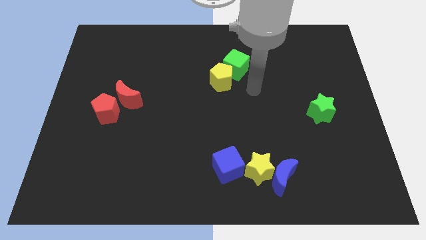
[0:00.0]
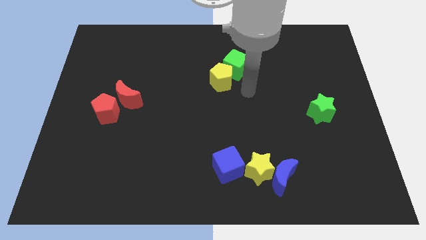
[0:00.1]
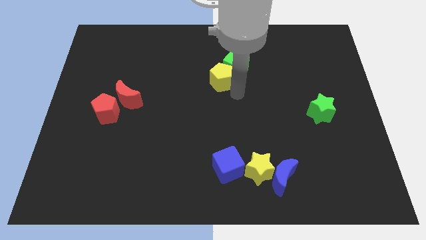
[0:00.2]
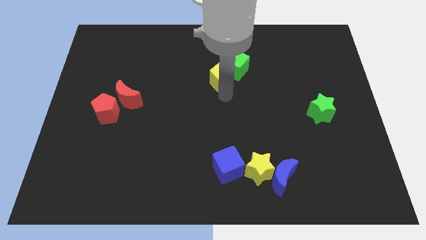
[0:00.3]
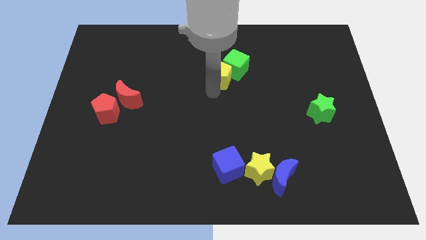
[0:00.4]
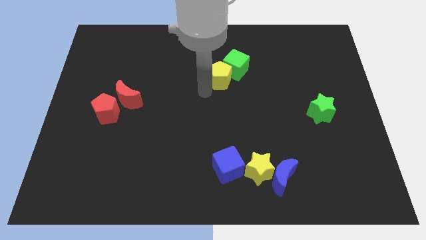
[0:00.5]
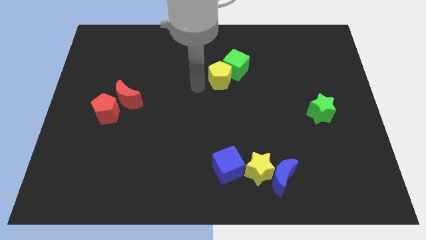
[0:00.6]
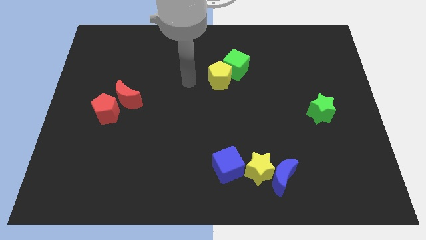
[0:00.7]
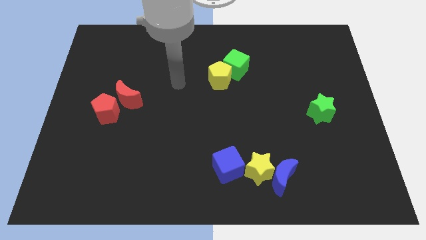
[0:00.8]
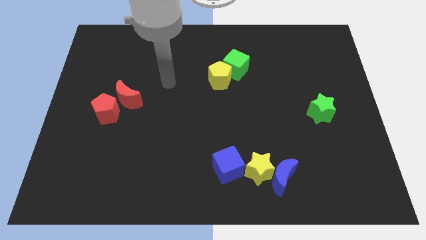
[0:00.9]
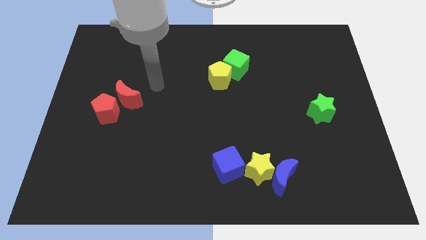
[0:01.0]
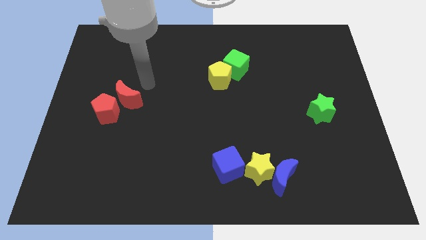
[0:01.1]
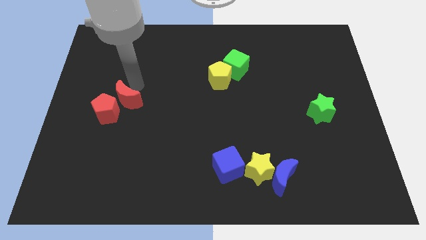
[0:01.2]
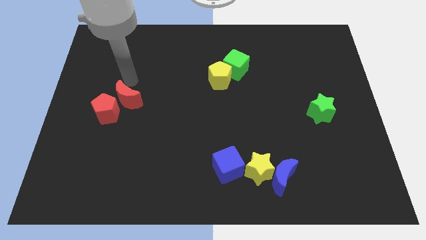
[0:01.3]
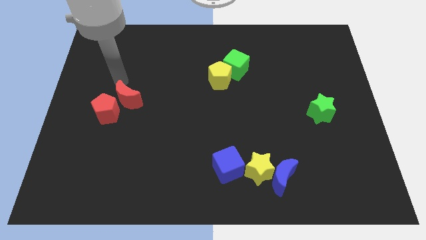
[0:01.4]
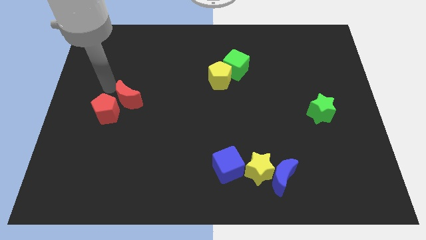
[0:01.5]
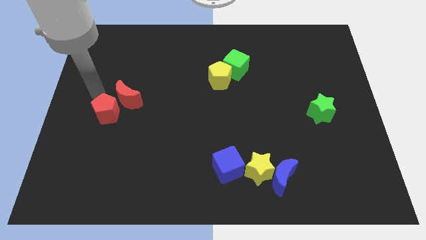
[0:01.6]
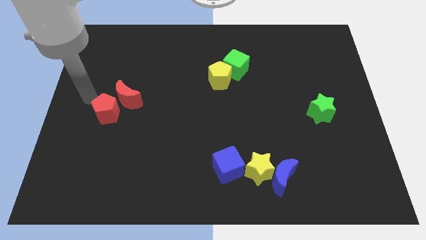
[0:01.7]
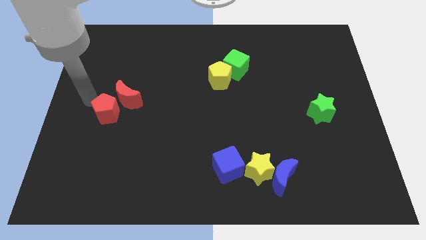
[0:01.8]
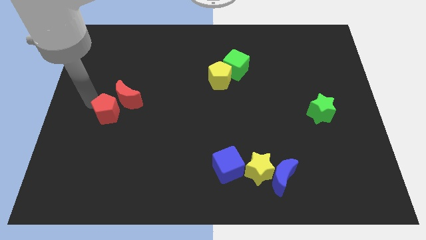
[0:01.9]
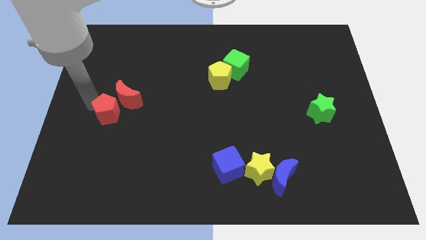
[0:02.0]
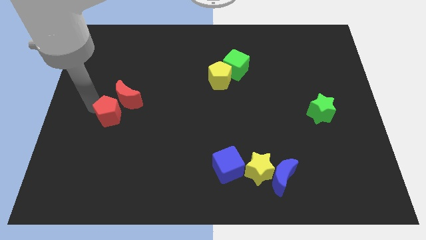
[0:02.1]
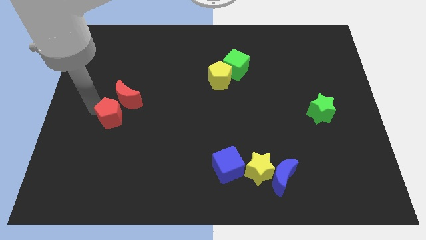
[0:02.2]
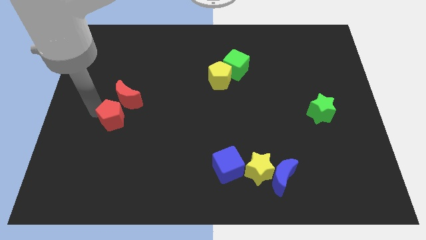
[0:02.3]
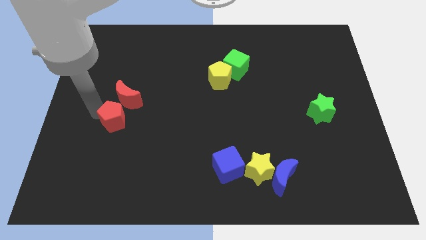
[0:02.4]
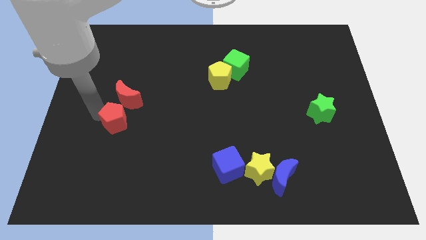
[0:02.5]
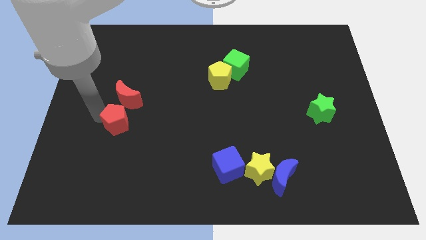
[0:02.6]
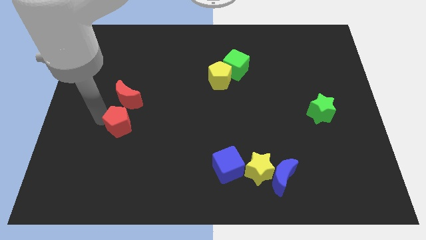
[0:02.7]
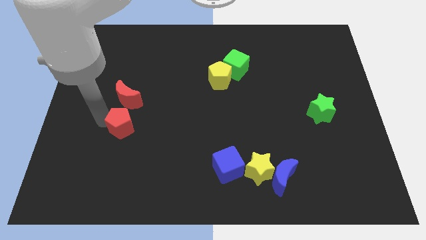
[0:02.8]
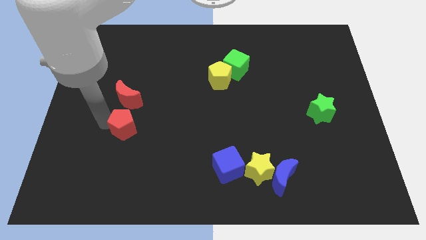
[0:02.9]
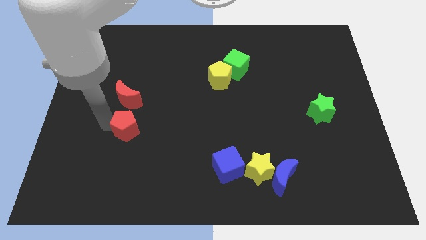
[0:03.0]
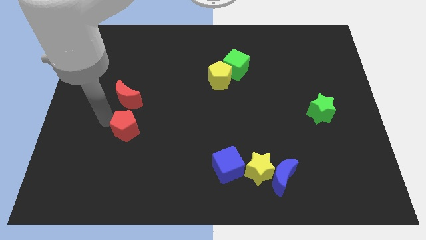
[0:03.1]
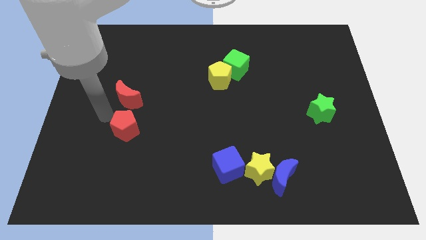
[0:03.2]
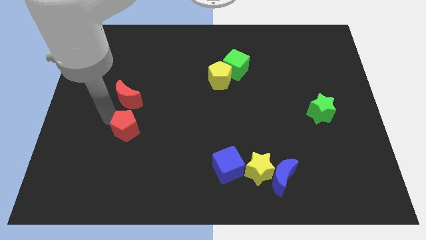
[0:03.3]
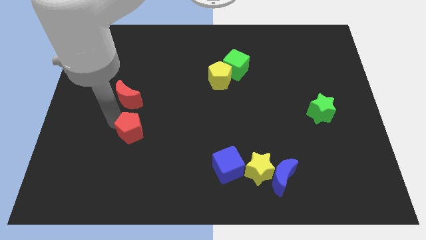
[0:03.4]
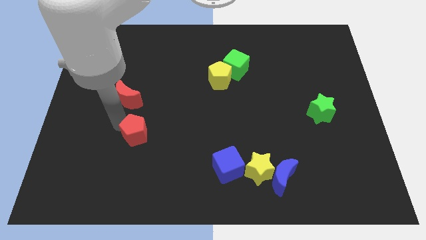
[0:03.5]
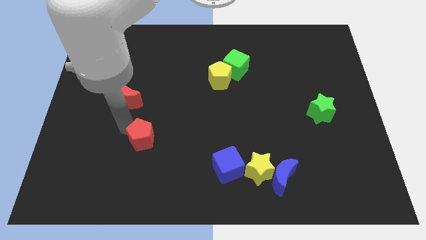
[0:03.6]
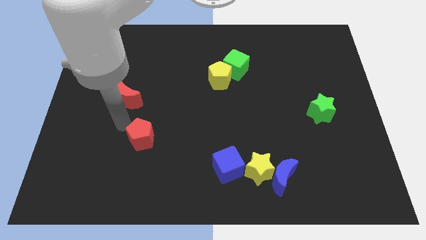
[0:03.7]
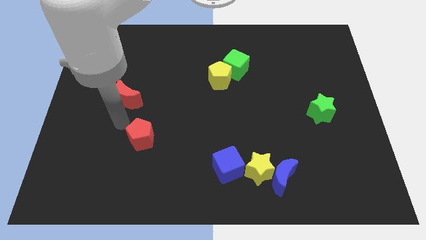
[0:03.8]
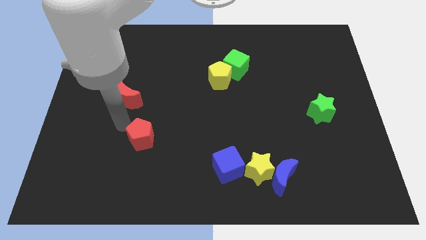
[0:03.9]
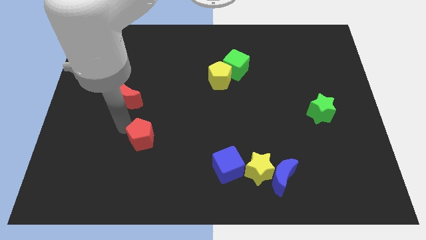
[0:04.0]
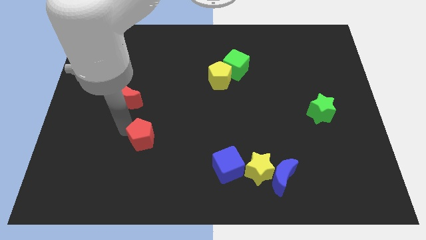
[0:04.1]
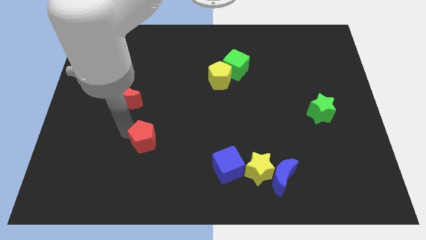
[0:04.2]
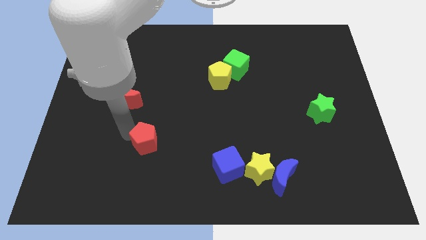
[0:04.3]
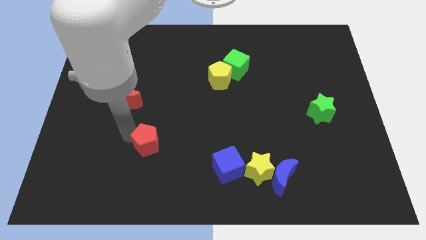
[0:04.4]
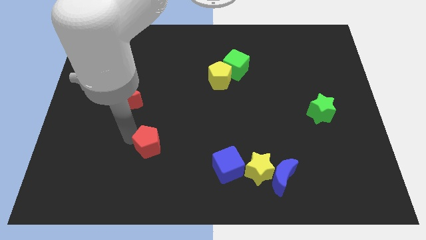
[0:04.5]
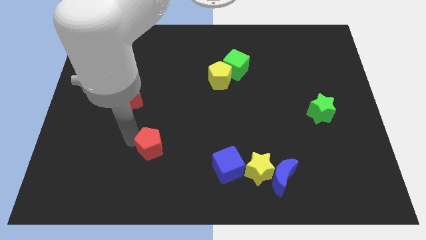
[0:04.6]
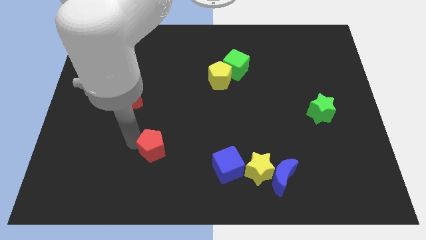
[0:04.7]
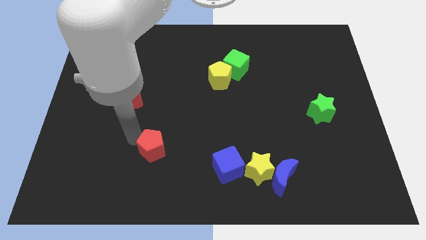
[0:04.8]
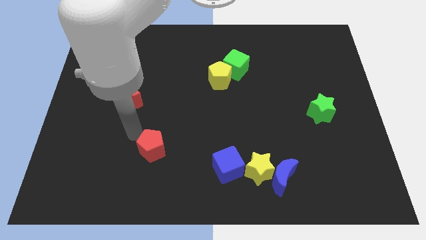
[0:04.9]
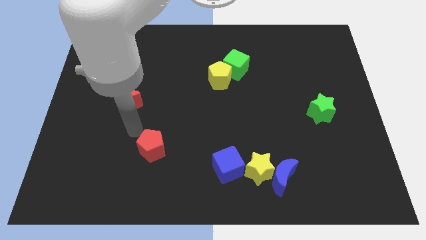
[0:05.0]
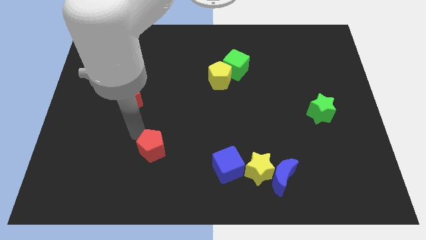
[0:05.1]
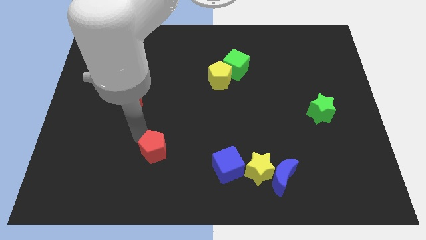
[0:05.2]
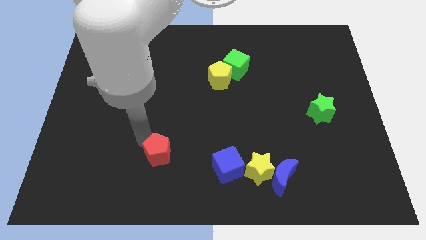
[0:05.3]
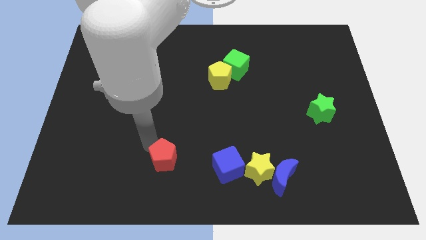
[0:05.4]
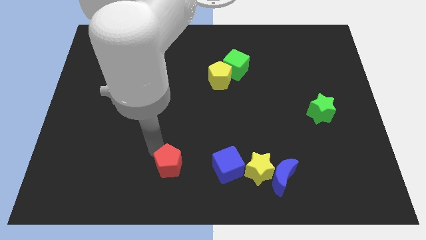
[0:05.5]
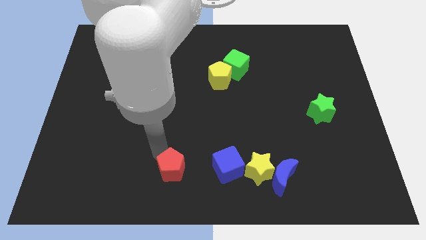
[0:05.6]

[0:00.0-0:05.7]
move the red pentagon to the bottom side

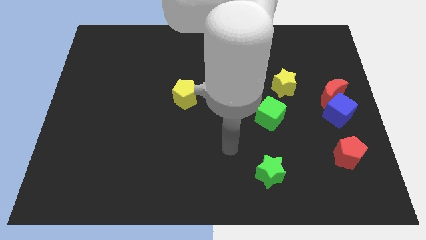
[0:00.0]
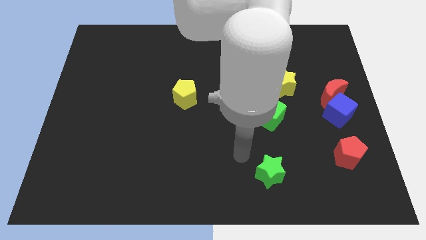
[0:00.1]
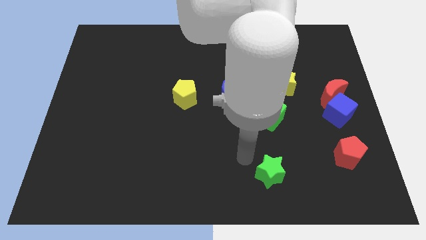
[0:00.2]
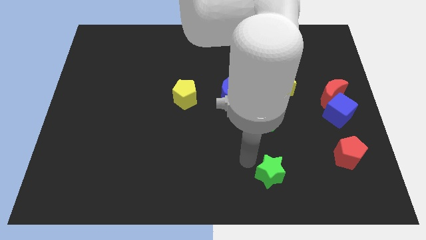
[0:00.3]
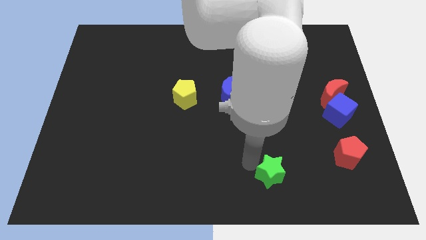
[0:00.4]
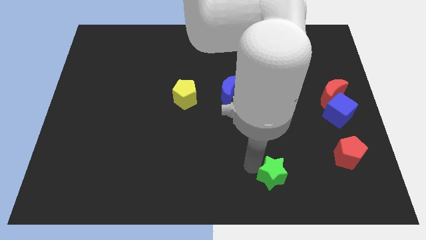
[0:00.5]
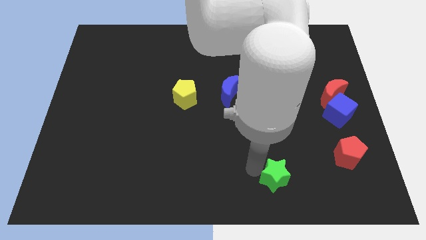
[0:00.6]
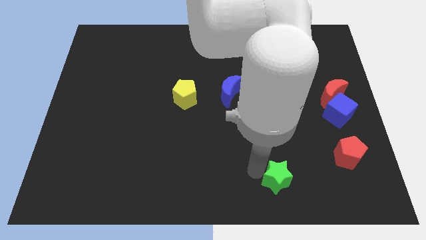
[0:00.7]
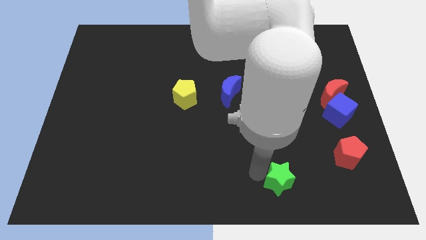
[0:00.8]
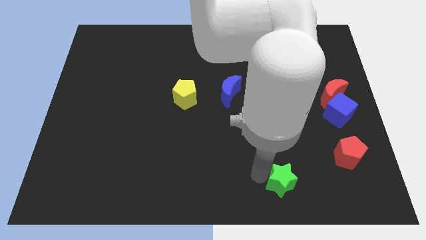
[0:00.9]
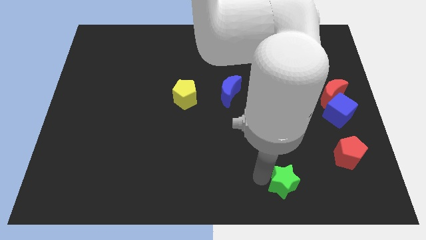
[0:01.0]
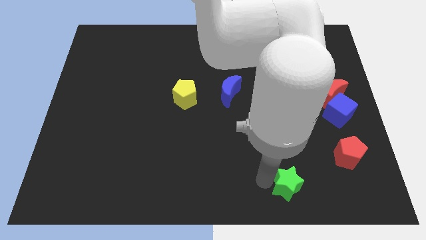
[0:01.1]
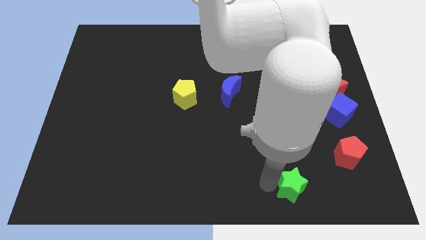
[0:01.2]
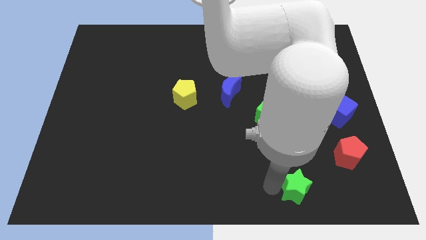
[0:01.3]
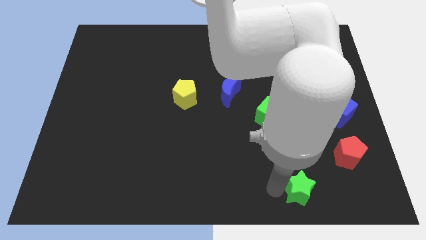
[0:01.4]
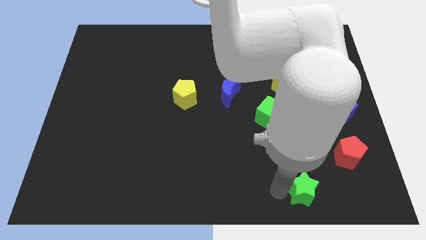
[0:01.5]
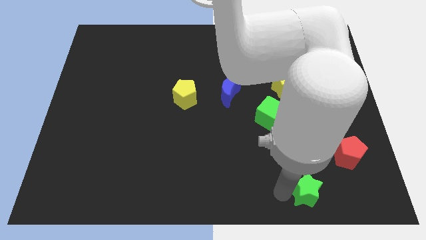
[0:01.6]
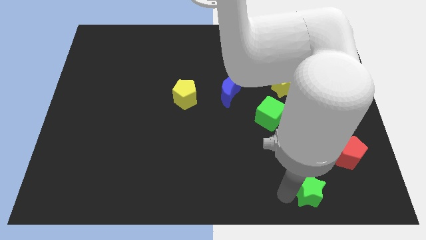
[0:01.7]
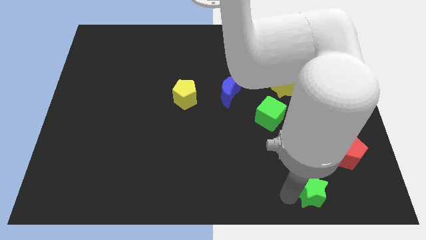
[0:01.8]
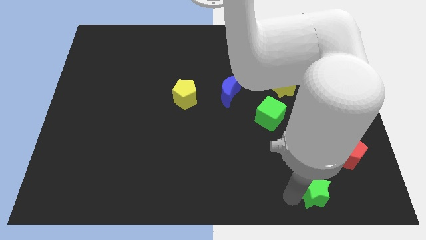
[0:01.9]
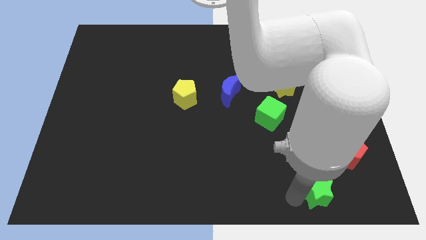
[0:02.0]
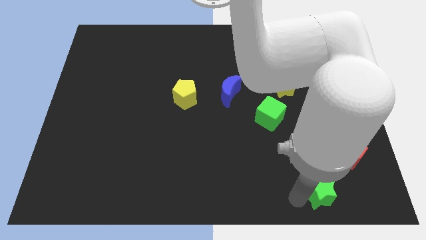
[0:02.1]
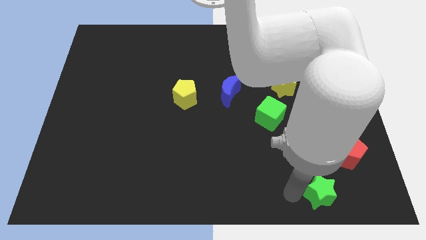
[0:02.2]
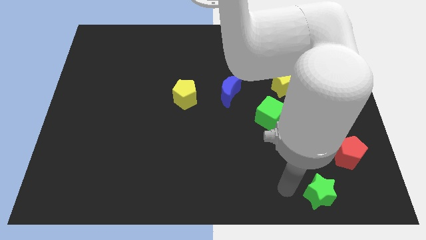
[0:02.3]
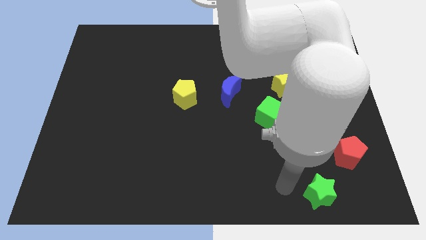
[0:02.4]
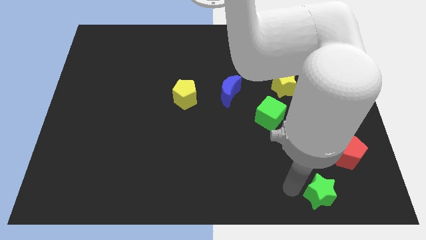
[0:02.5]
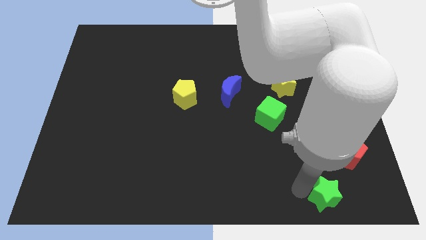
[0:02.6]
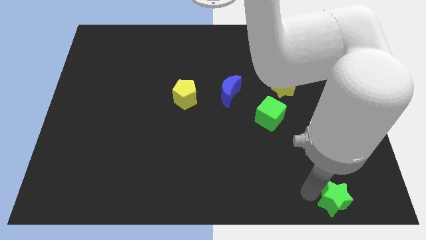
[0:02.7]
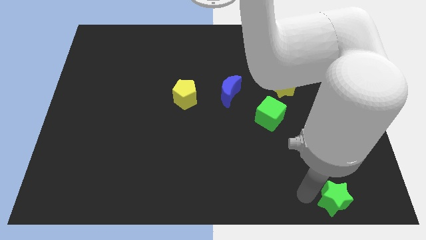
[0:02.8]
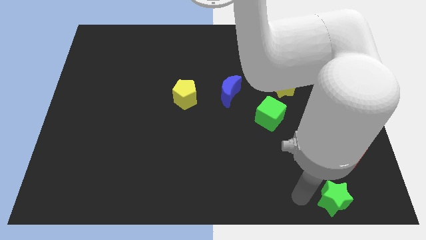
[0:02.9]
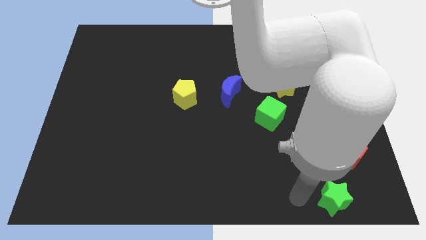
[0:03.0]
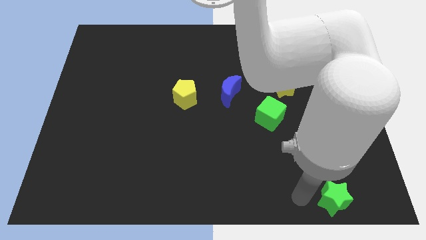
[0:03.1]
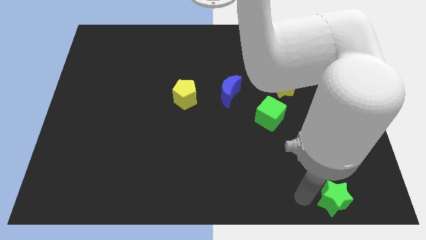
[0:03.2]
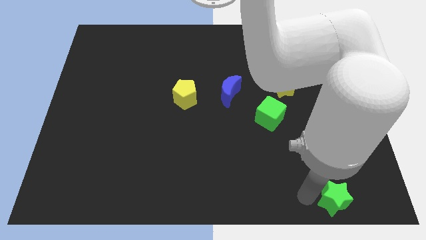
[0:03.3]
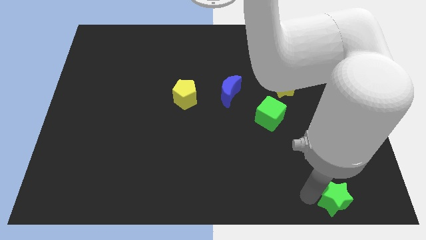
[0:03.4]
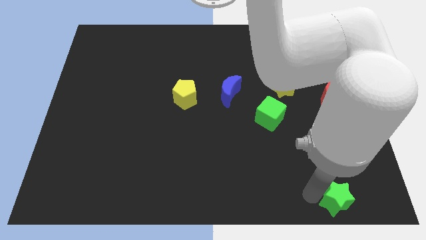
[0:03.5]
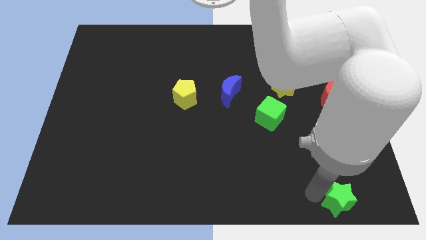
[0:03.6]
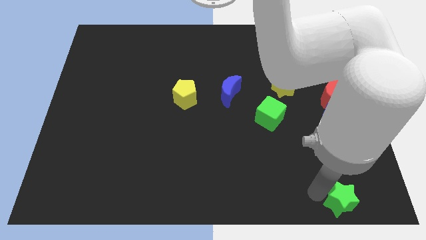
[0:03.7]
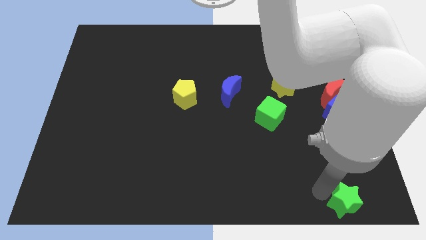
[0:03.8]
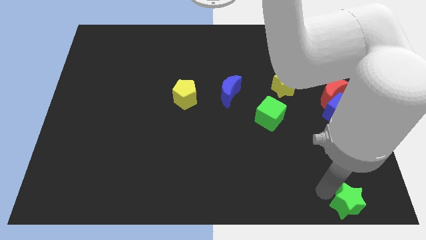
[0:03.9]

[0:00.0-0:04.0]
put the green star to the lower right corner
